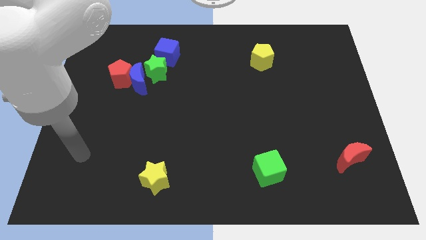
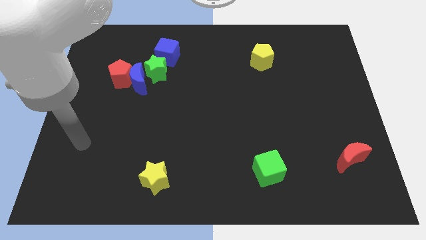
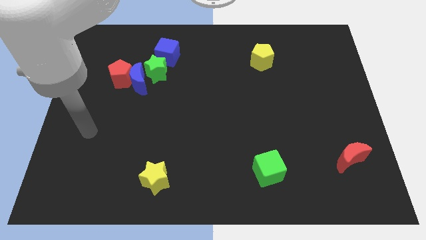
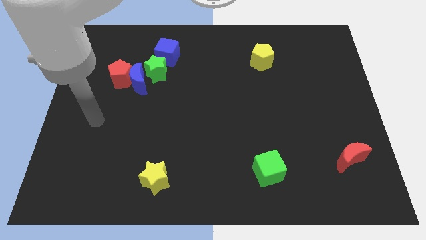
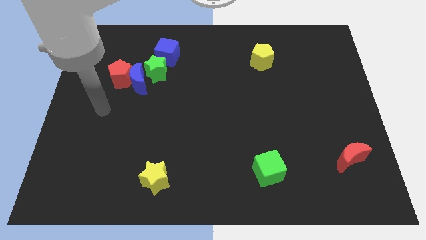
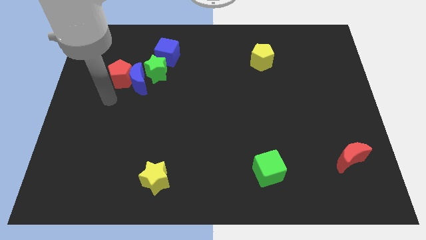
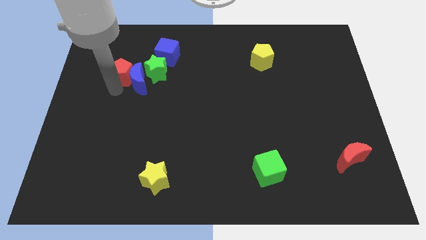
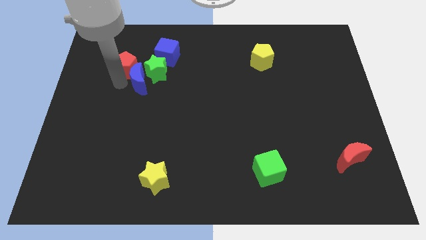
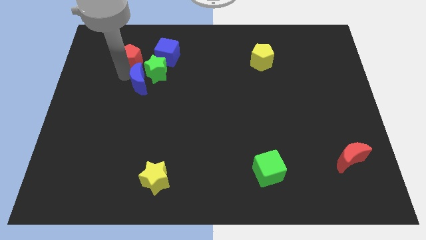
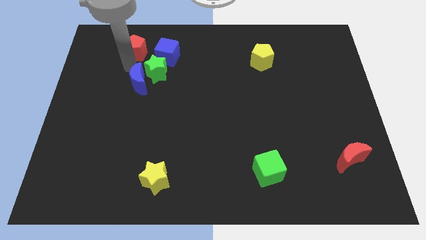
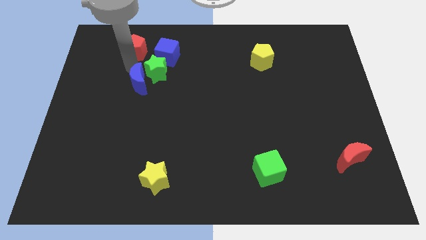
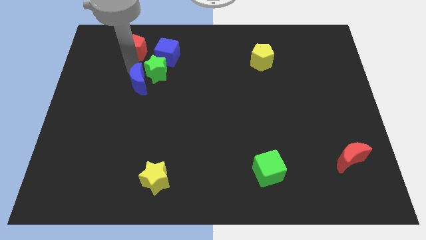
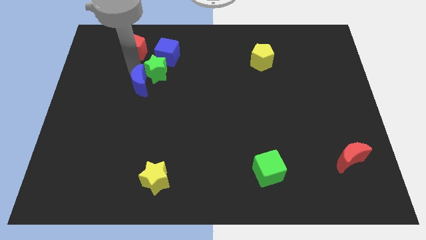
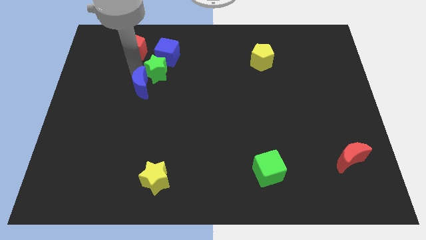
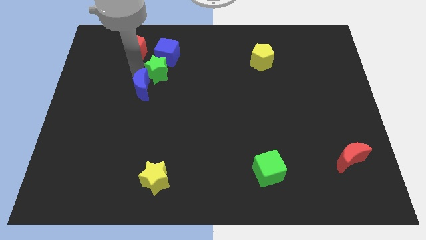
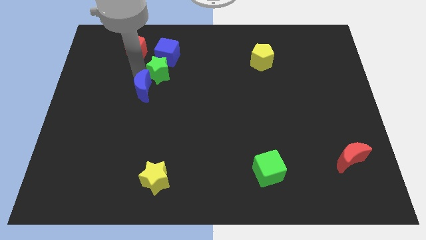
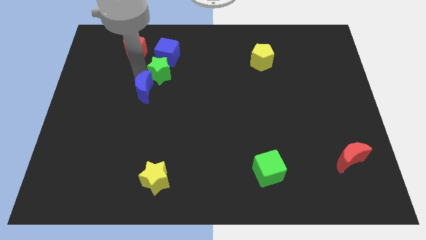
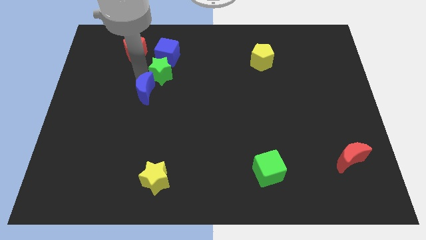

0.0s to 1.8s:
separate the blue moon from the red pentagon and green star

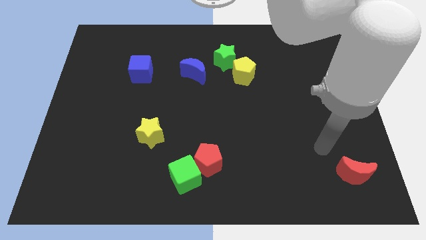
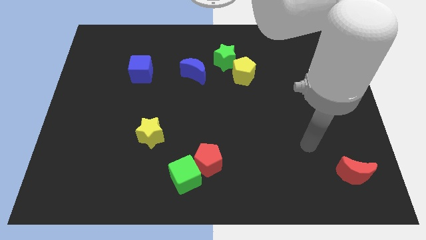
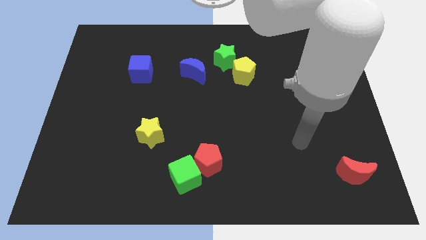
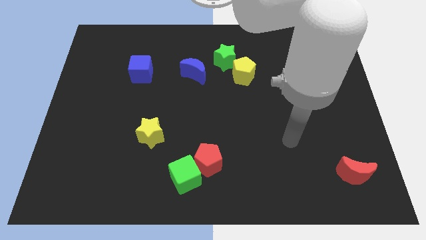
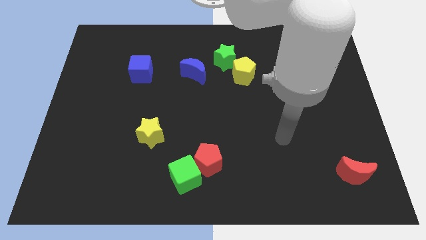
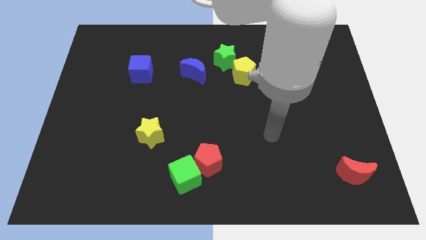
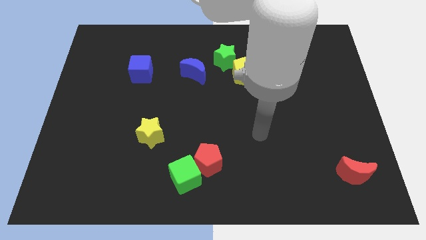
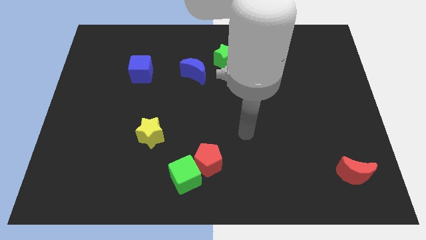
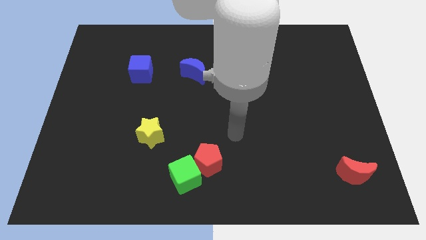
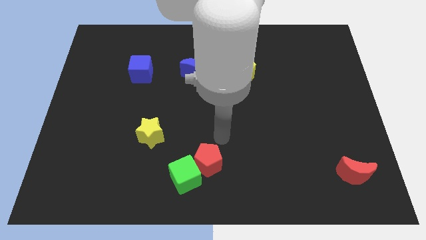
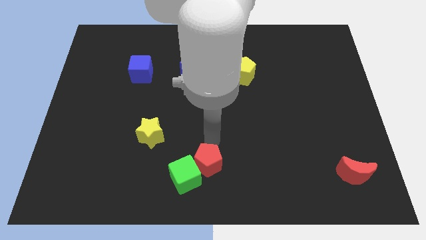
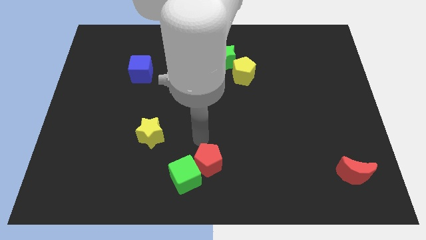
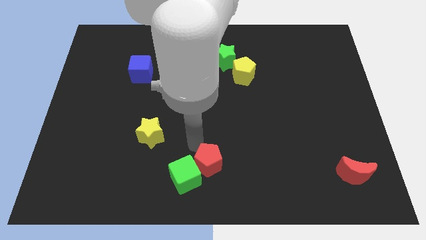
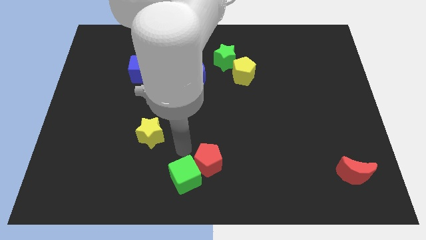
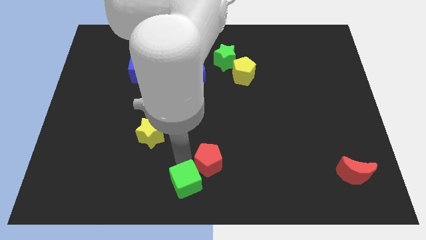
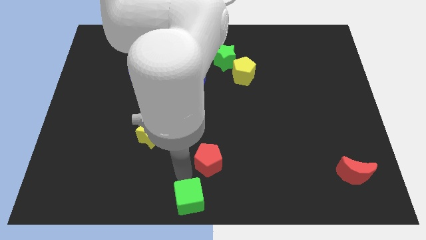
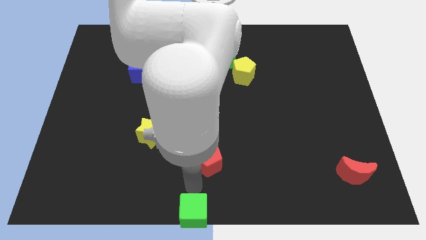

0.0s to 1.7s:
move the red pentagon away from the green cube

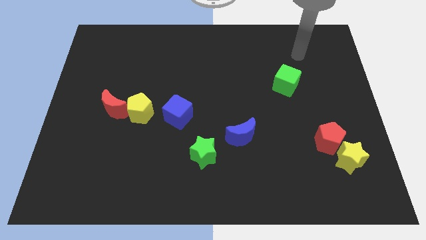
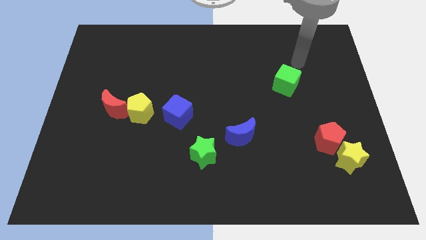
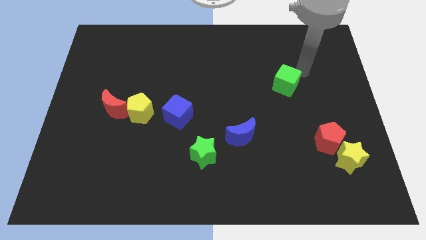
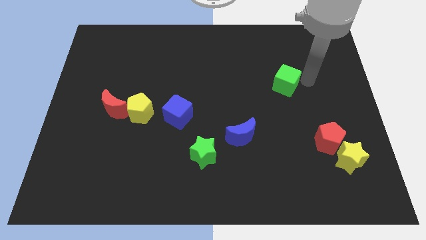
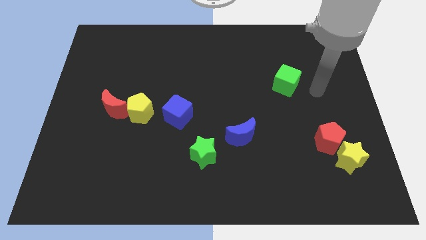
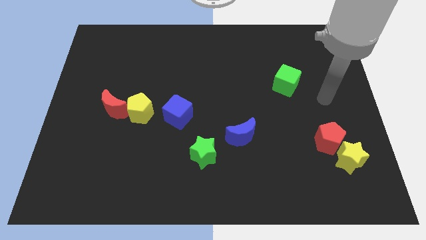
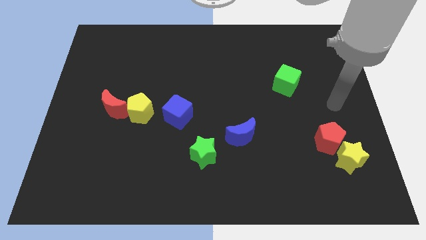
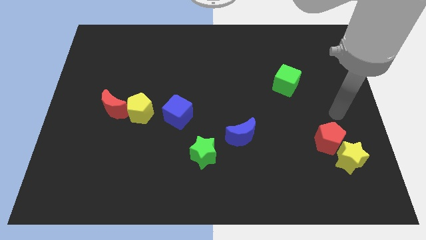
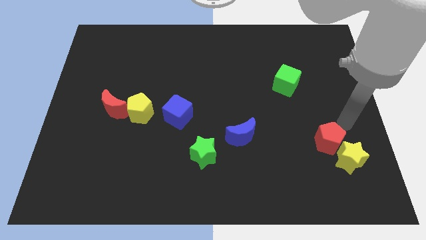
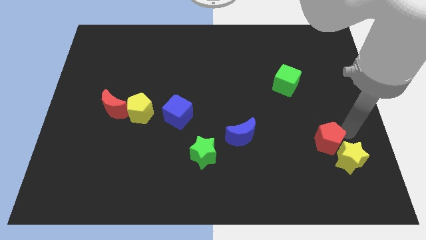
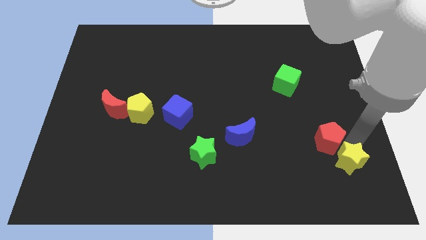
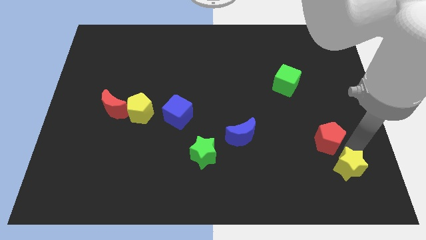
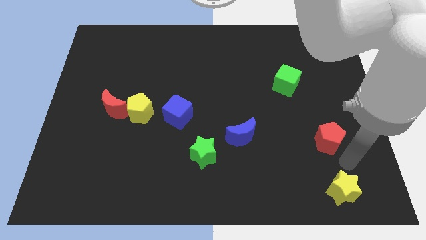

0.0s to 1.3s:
move the red pentagon away from the yellow star

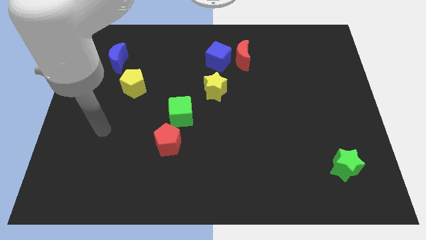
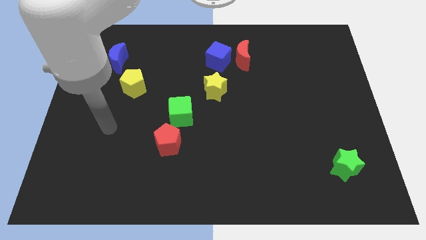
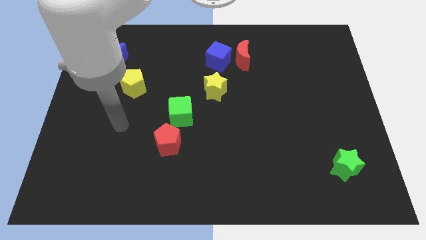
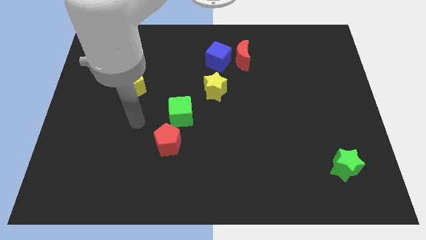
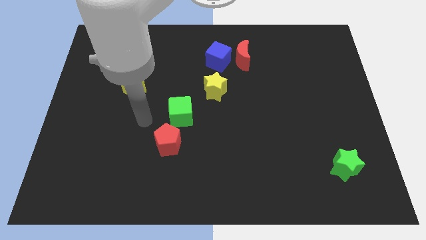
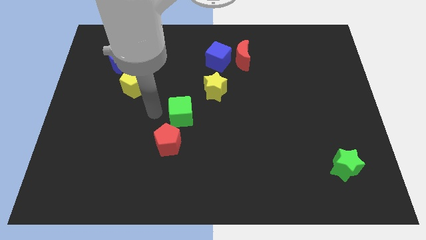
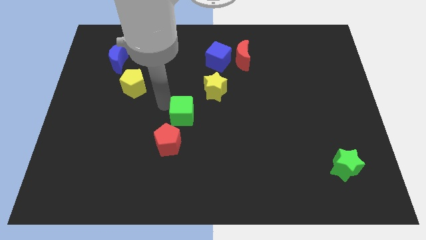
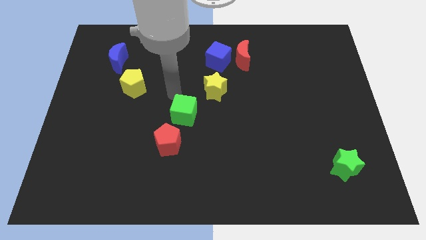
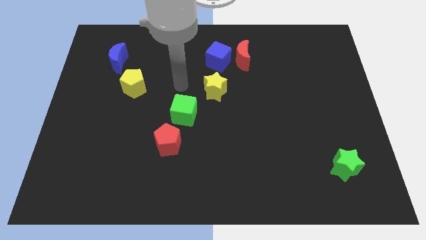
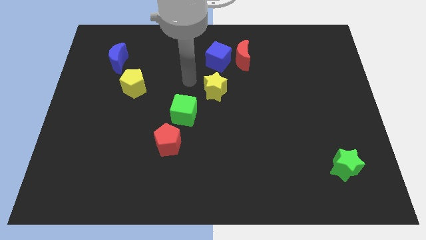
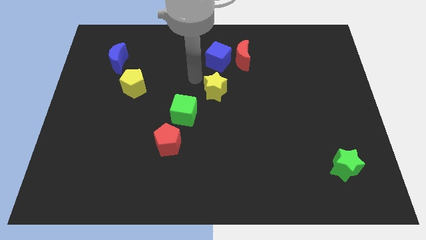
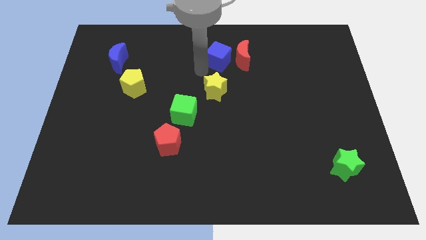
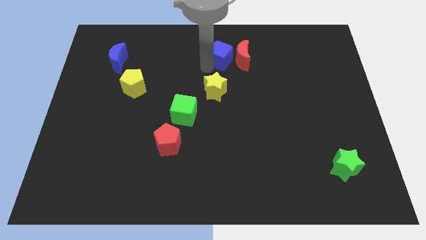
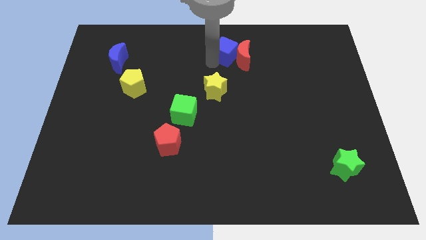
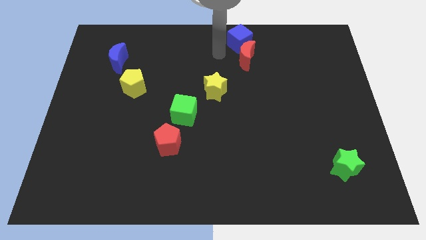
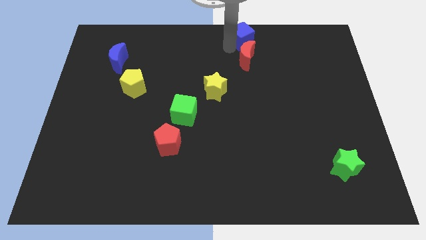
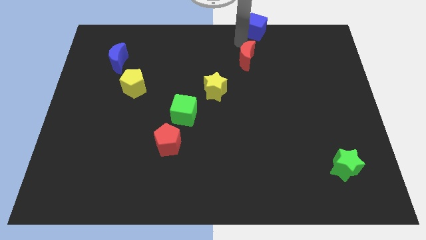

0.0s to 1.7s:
pull the red moon apart from the blue cube

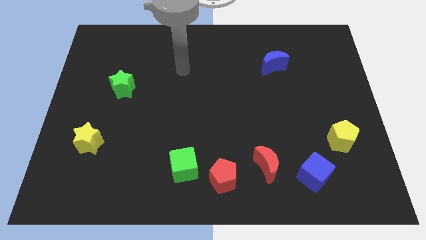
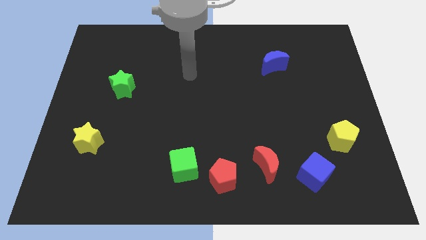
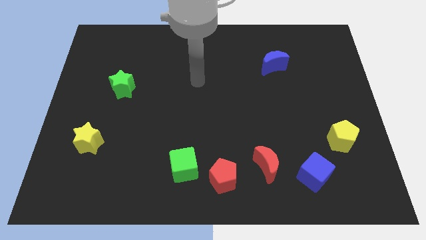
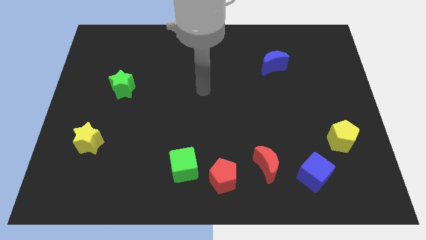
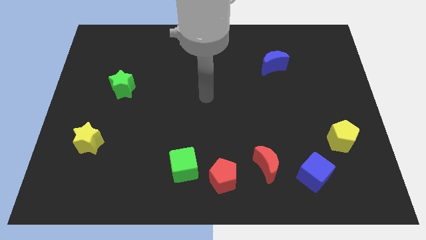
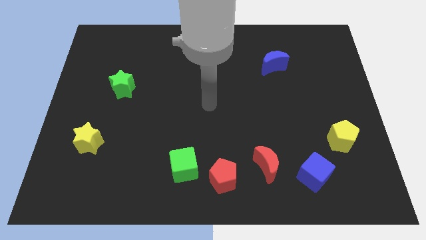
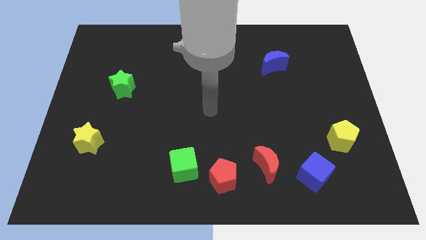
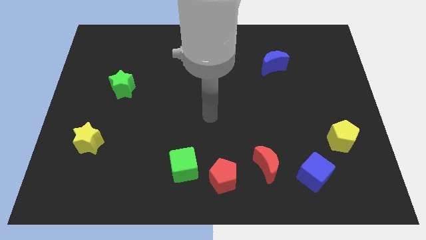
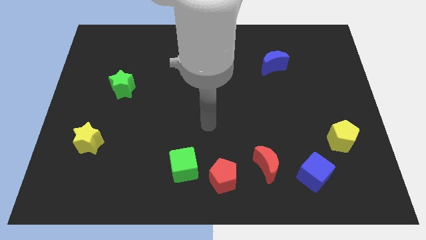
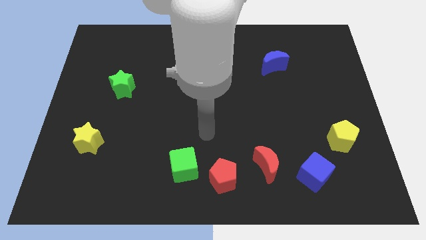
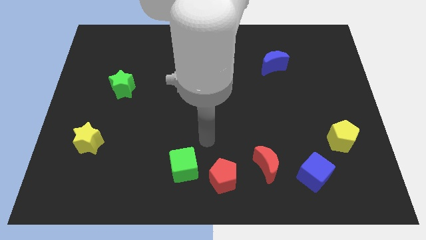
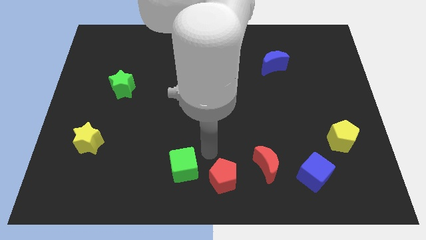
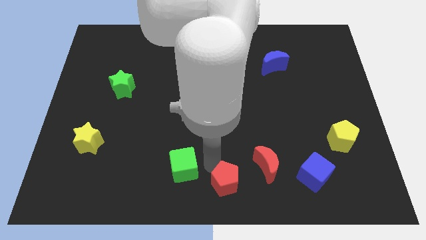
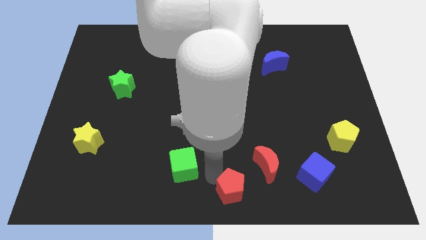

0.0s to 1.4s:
pull the green cube apart from the red pentagon

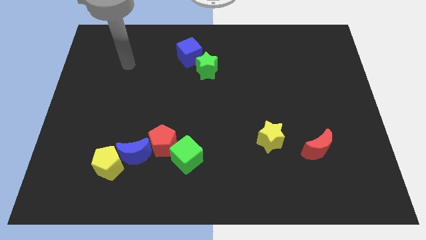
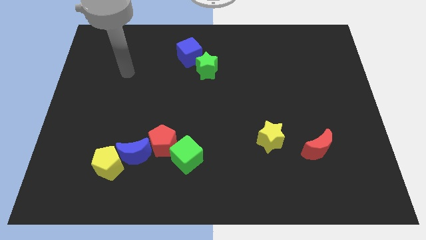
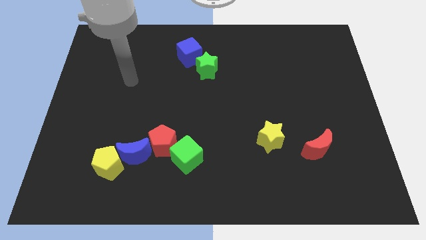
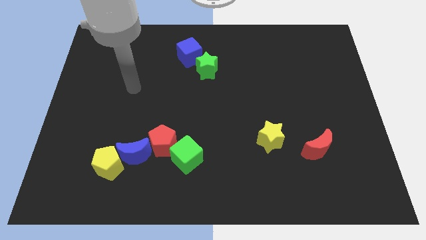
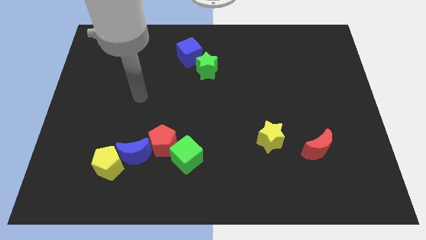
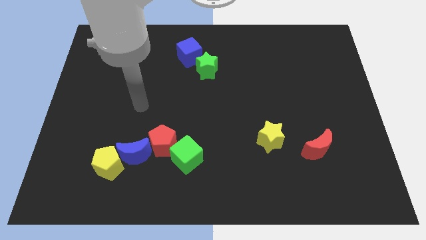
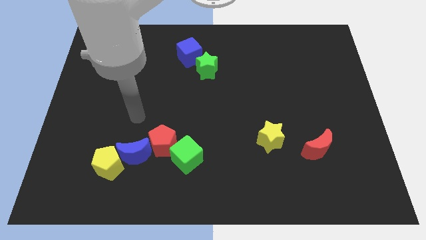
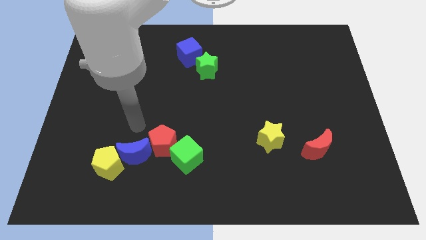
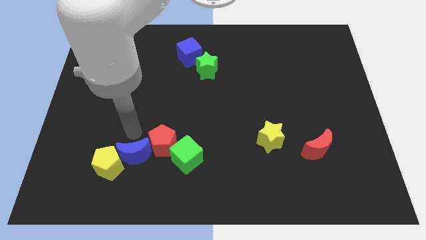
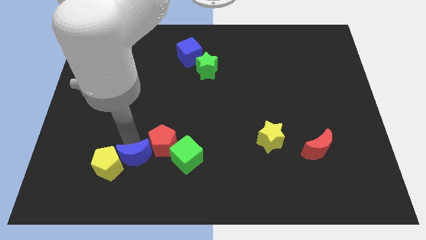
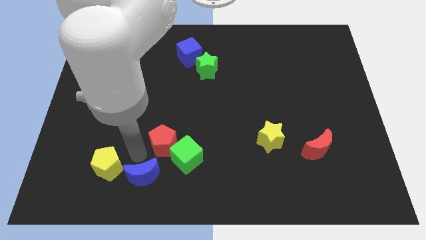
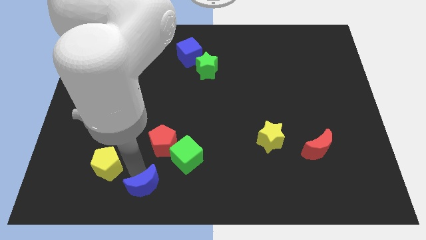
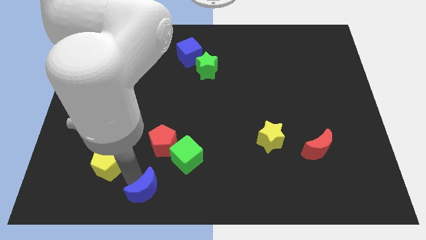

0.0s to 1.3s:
pull the yellow pentagon apart from the blue moon
